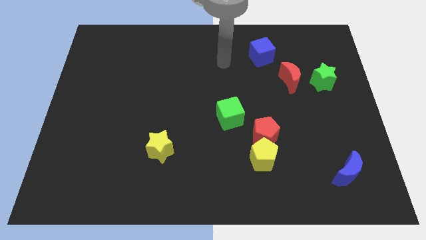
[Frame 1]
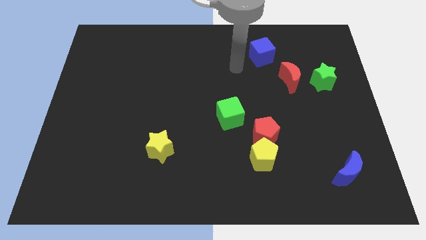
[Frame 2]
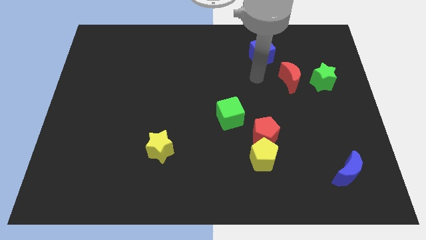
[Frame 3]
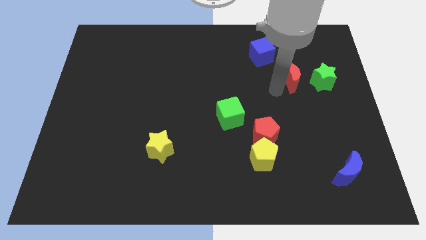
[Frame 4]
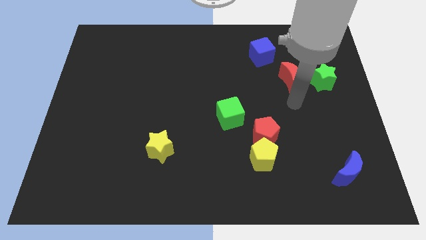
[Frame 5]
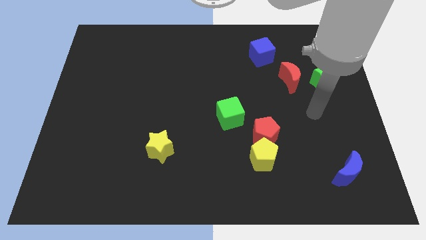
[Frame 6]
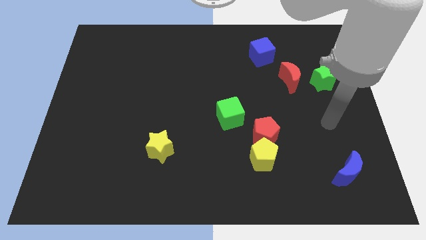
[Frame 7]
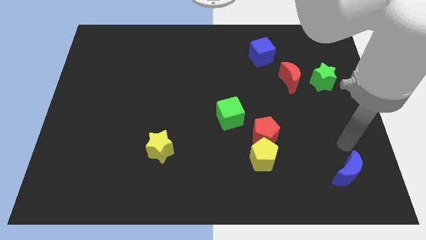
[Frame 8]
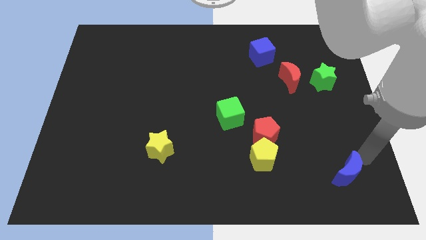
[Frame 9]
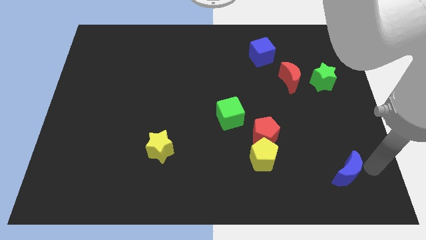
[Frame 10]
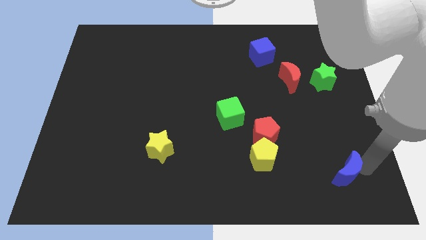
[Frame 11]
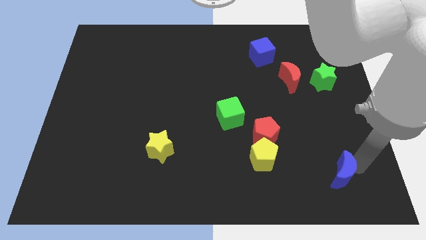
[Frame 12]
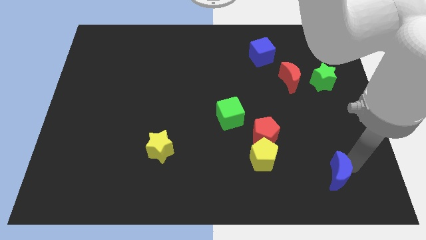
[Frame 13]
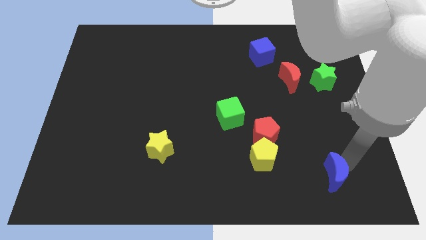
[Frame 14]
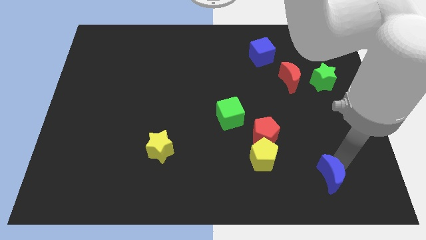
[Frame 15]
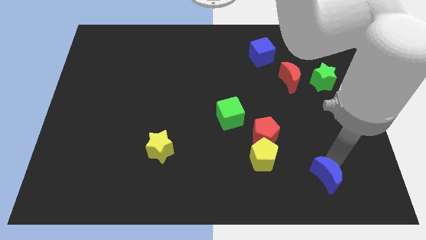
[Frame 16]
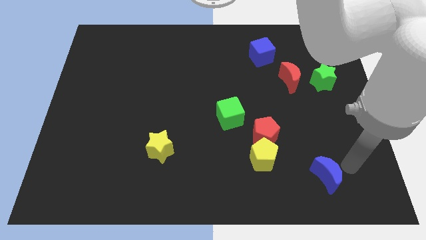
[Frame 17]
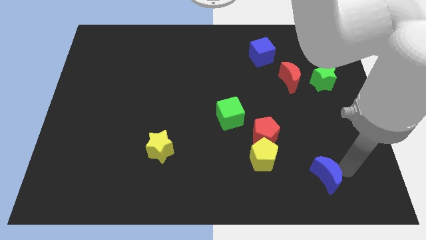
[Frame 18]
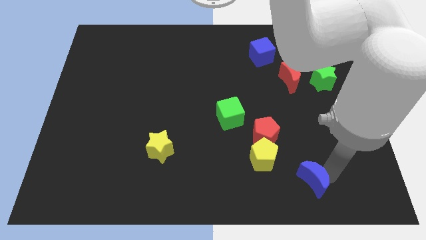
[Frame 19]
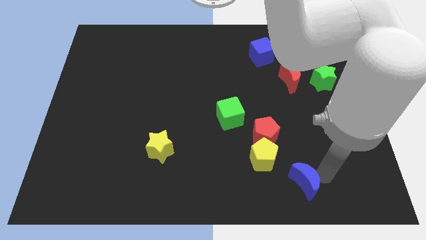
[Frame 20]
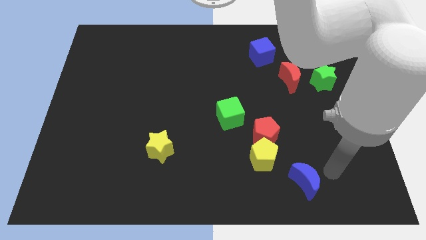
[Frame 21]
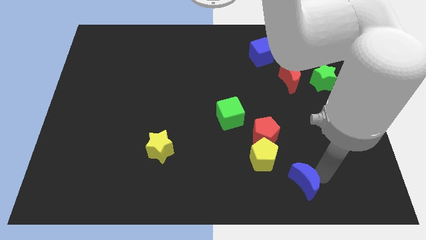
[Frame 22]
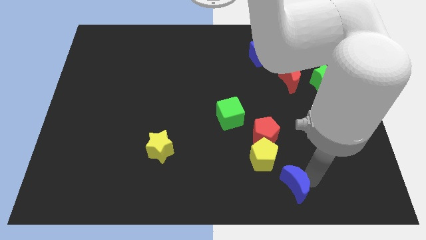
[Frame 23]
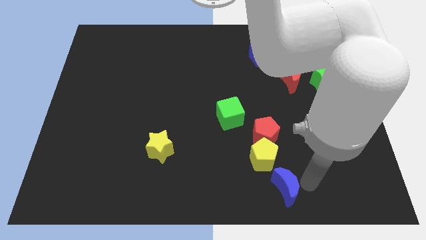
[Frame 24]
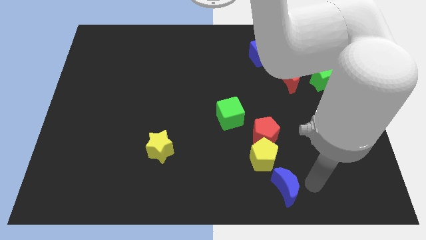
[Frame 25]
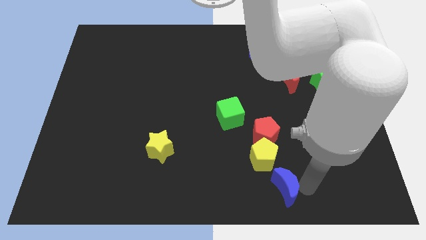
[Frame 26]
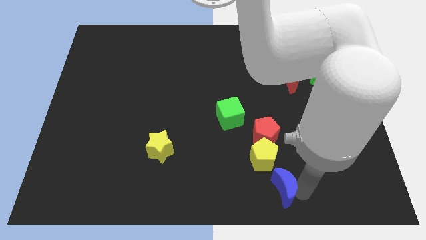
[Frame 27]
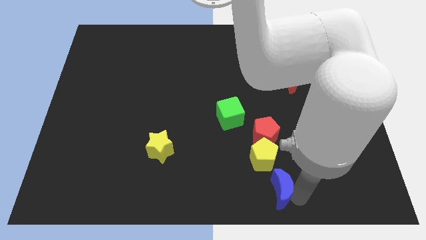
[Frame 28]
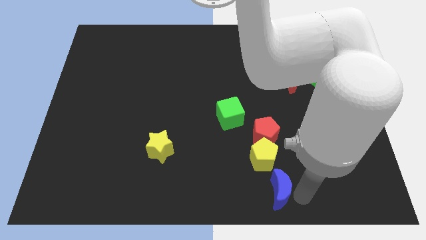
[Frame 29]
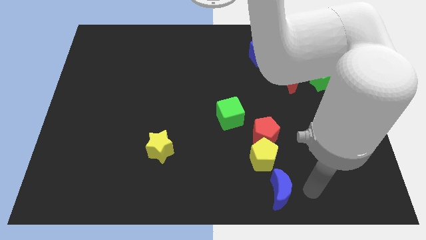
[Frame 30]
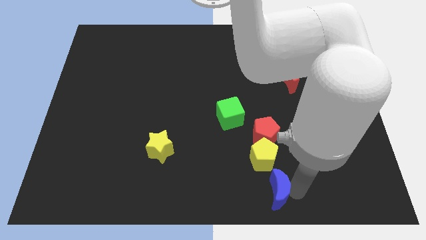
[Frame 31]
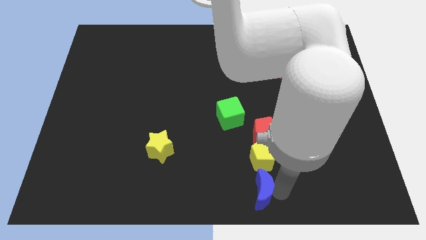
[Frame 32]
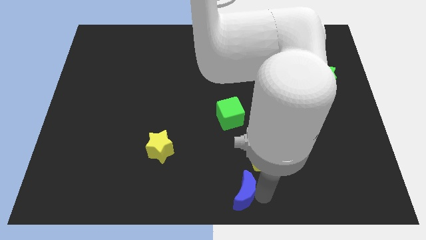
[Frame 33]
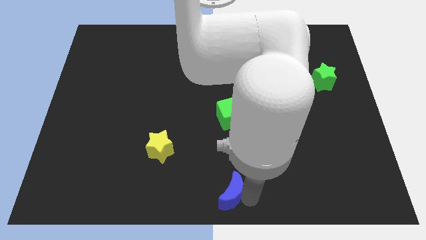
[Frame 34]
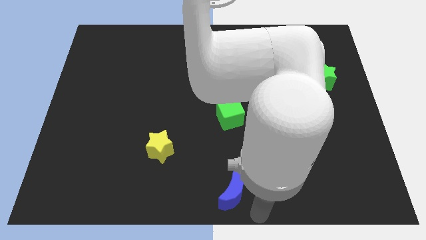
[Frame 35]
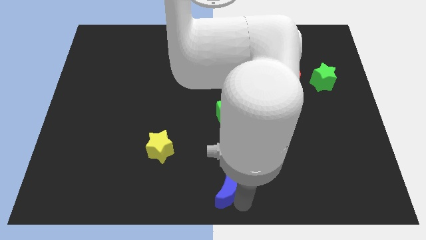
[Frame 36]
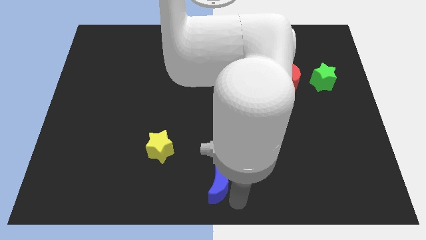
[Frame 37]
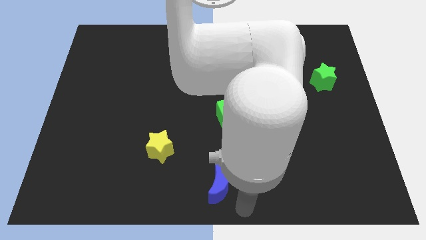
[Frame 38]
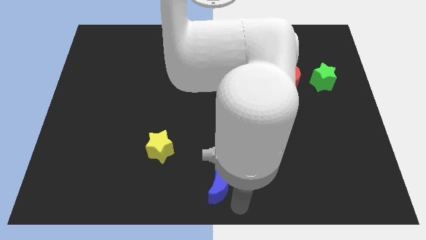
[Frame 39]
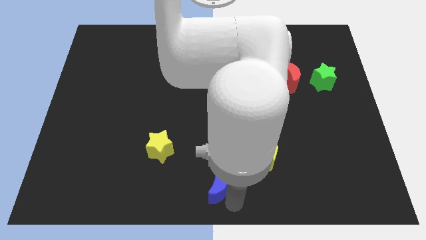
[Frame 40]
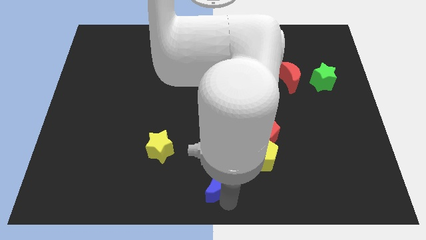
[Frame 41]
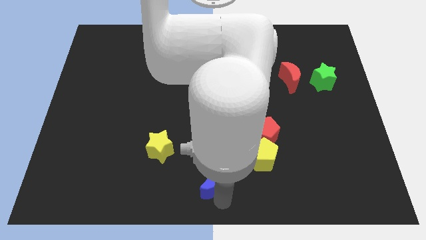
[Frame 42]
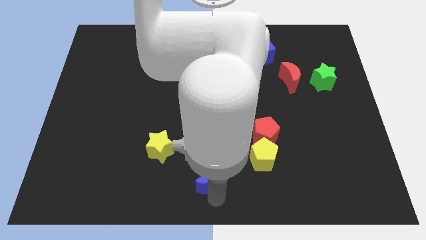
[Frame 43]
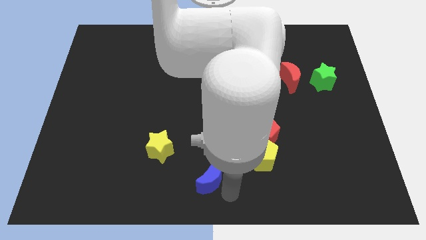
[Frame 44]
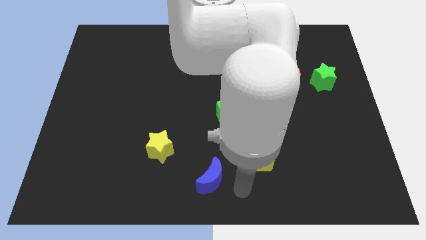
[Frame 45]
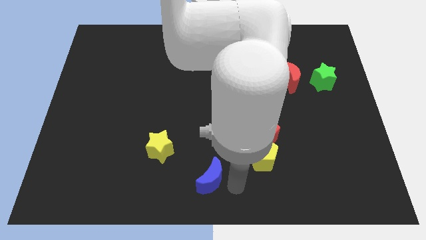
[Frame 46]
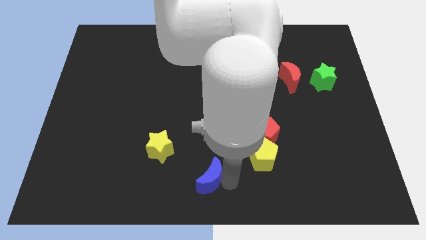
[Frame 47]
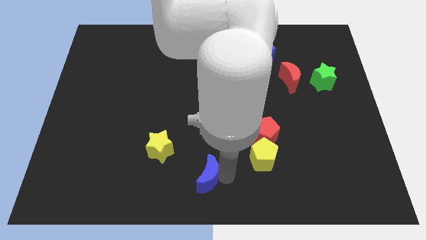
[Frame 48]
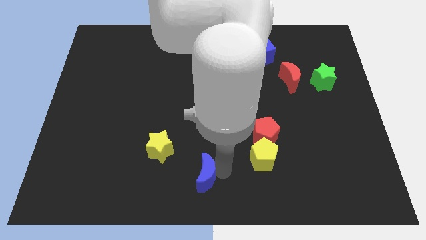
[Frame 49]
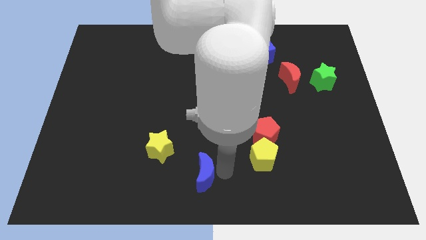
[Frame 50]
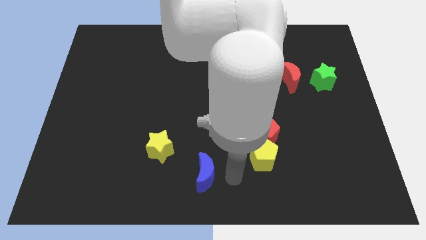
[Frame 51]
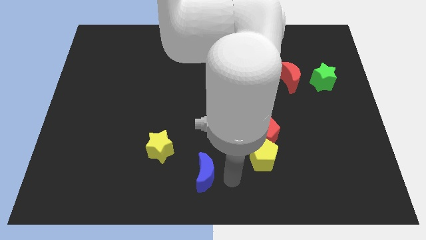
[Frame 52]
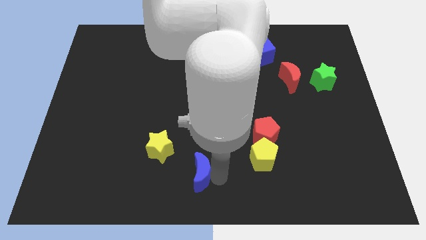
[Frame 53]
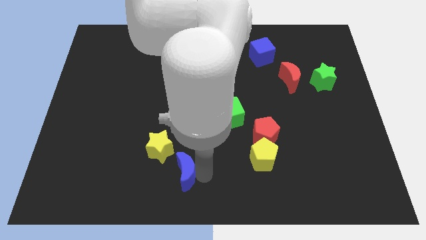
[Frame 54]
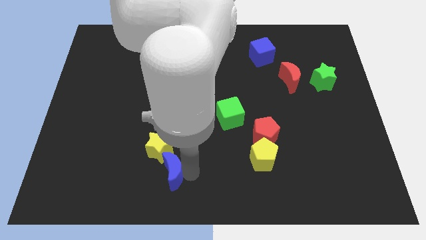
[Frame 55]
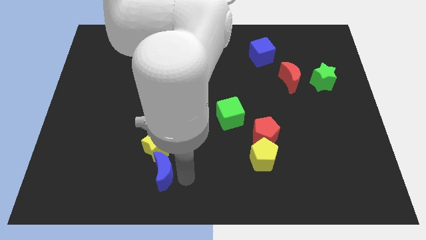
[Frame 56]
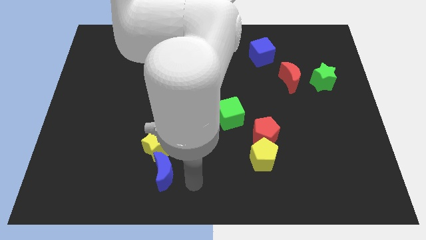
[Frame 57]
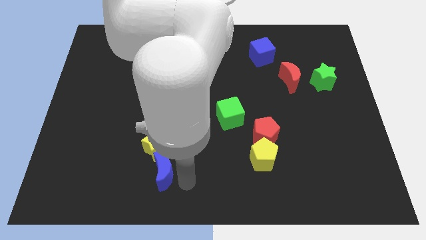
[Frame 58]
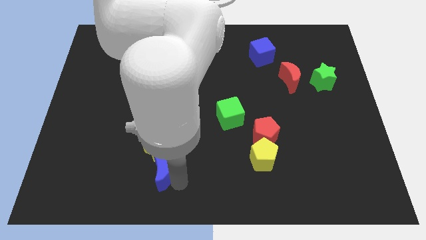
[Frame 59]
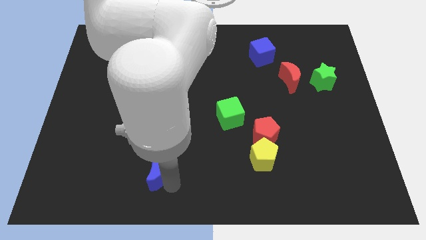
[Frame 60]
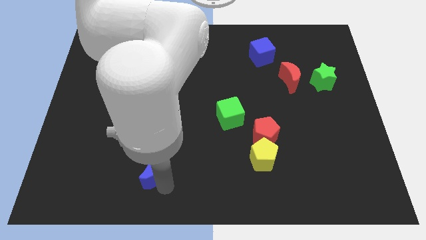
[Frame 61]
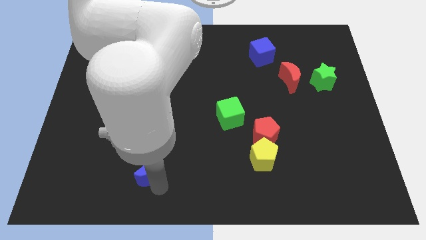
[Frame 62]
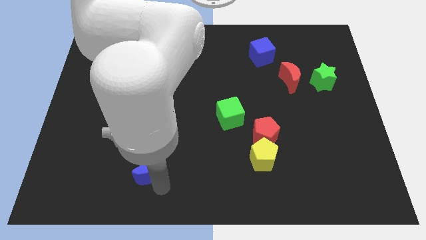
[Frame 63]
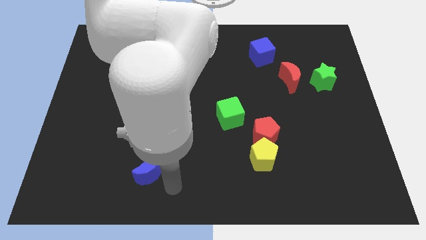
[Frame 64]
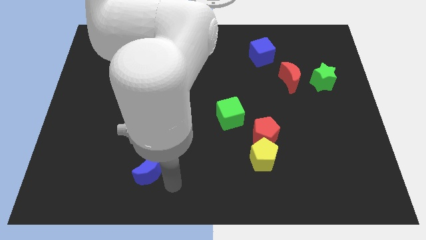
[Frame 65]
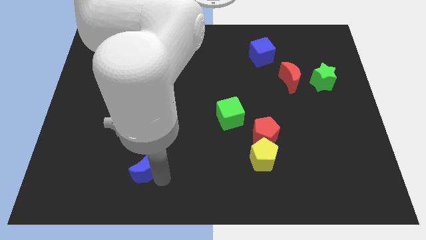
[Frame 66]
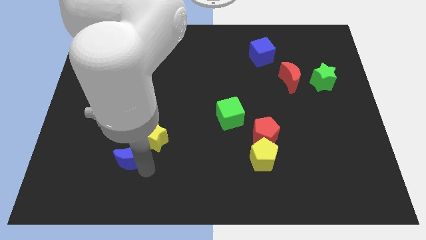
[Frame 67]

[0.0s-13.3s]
move the blue moon left of the yellow star
